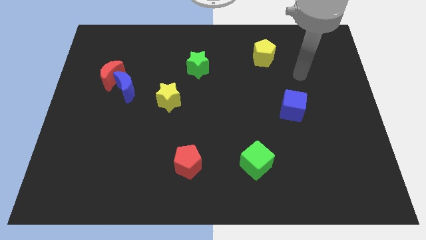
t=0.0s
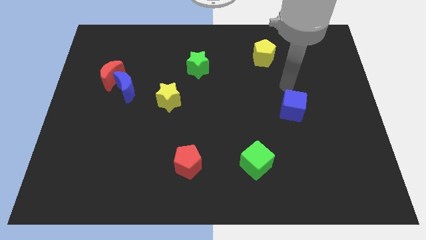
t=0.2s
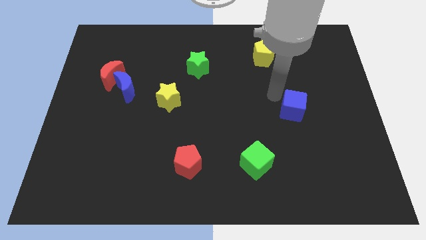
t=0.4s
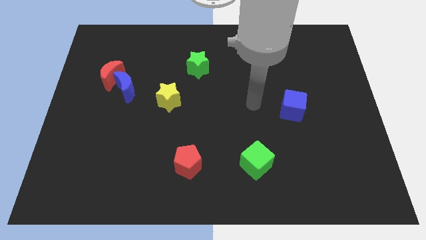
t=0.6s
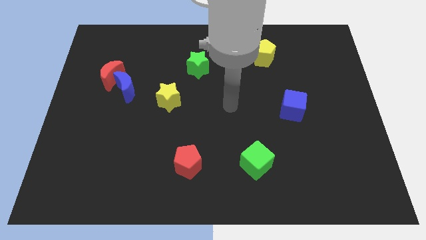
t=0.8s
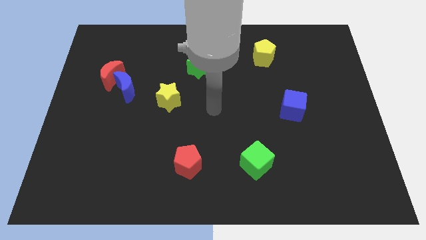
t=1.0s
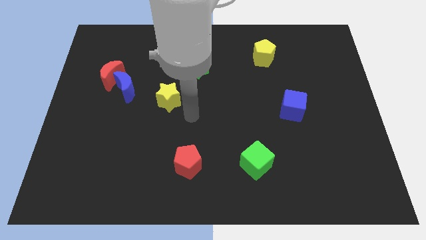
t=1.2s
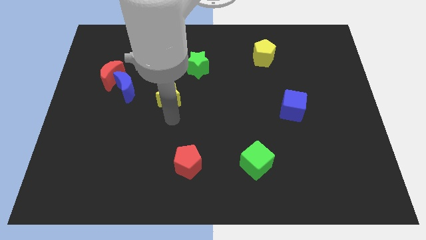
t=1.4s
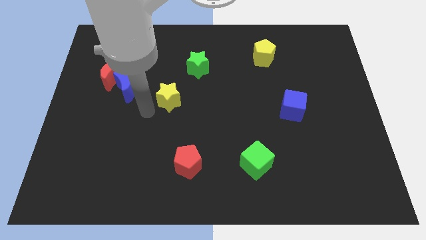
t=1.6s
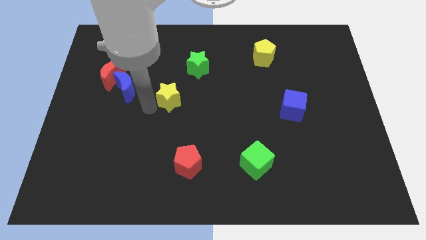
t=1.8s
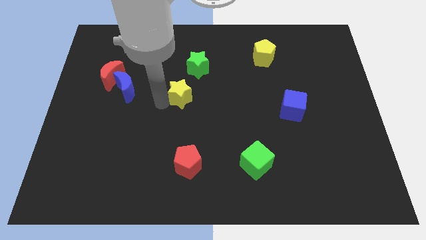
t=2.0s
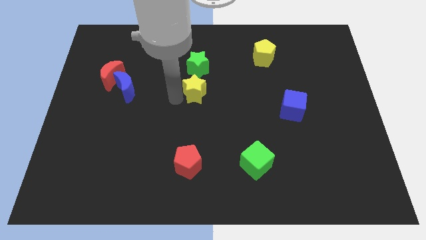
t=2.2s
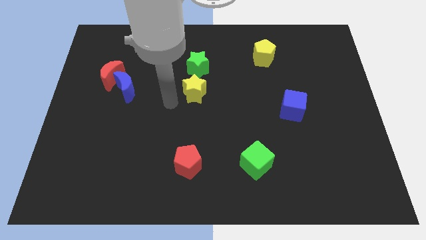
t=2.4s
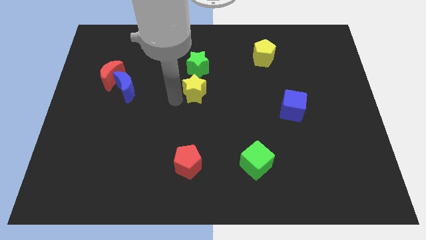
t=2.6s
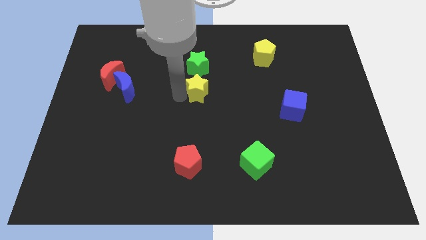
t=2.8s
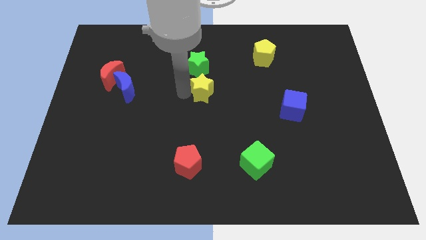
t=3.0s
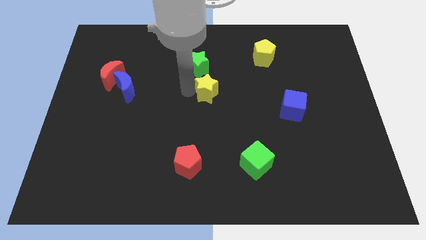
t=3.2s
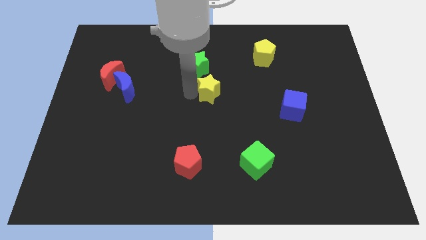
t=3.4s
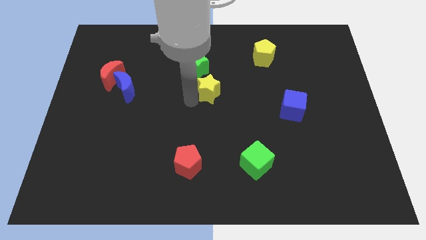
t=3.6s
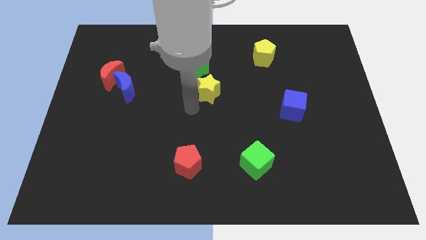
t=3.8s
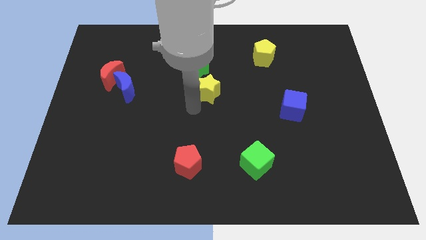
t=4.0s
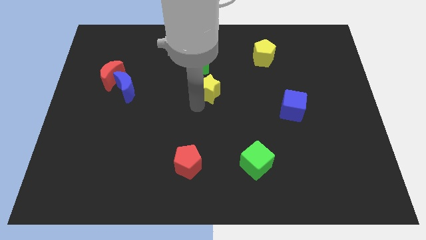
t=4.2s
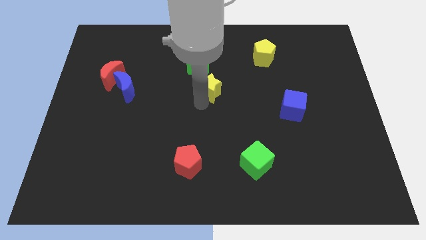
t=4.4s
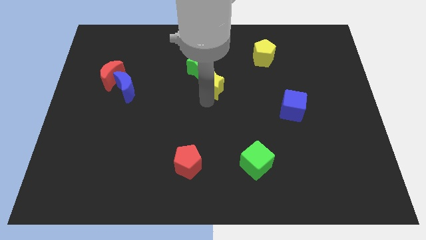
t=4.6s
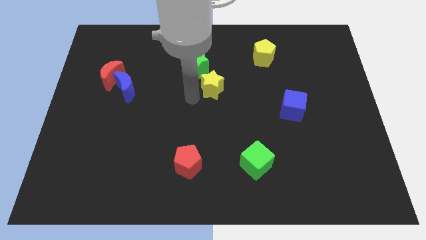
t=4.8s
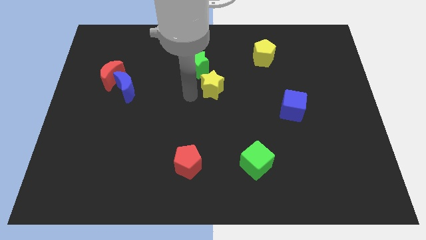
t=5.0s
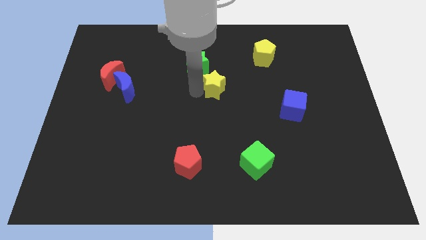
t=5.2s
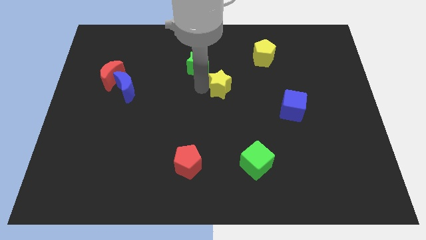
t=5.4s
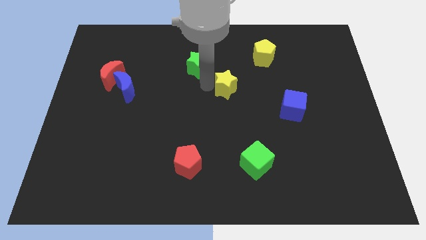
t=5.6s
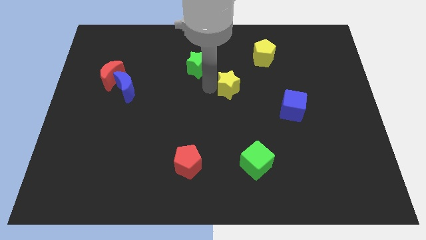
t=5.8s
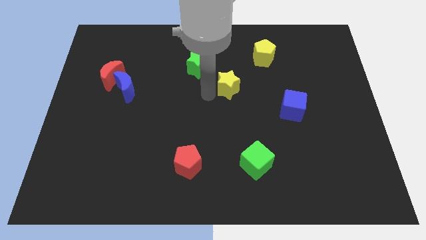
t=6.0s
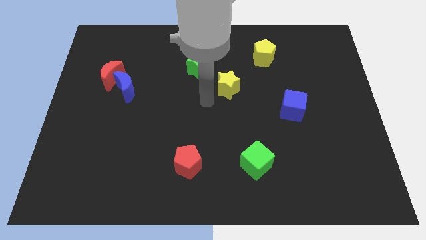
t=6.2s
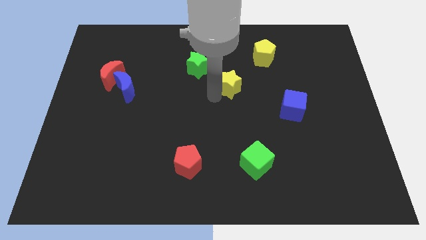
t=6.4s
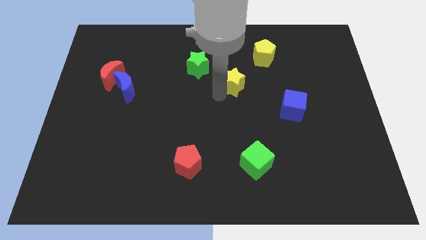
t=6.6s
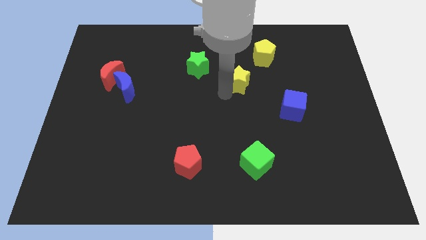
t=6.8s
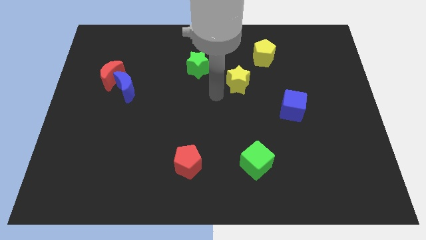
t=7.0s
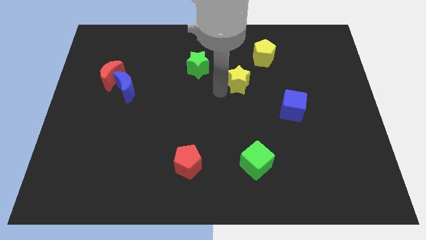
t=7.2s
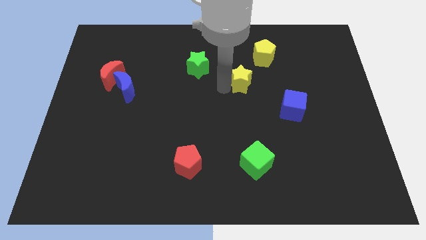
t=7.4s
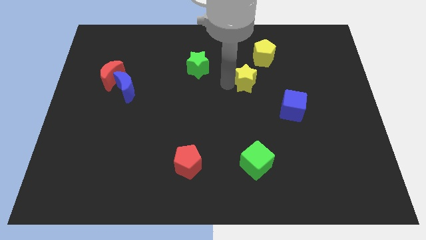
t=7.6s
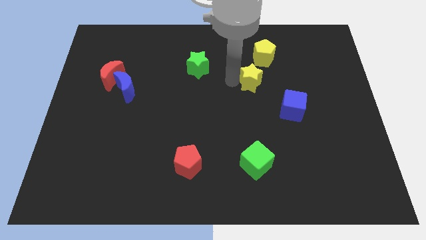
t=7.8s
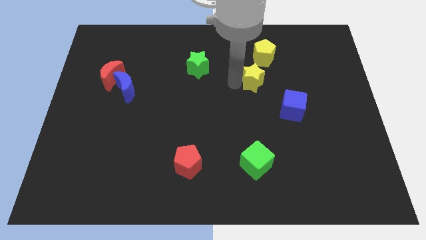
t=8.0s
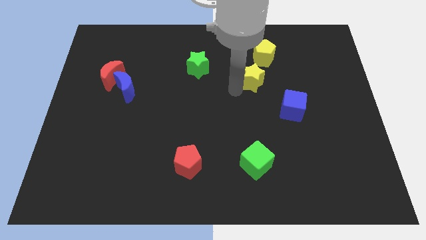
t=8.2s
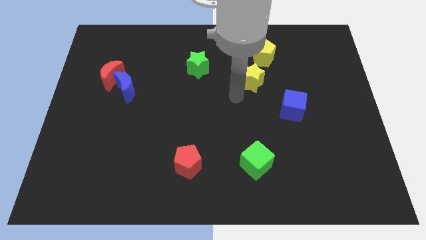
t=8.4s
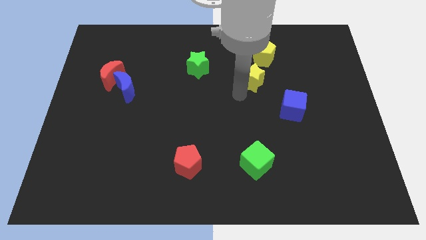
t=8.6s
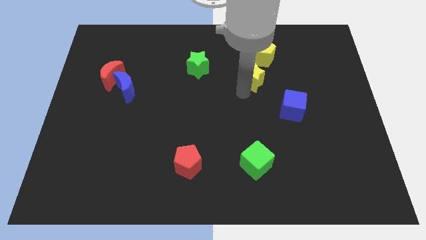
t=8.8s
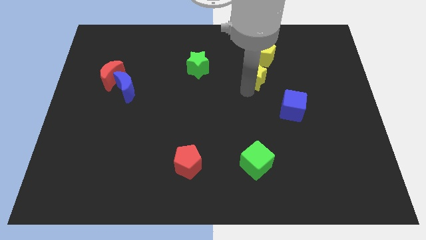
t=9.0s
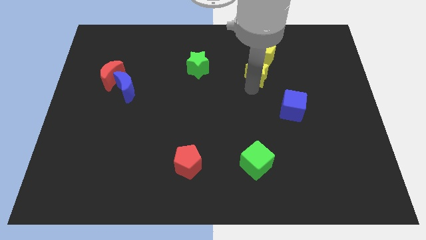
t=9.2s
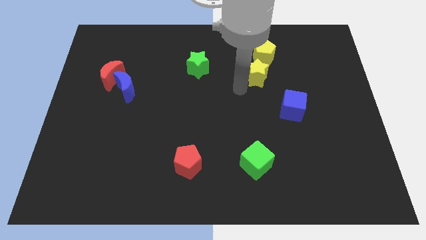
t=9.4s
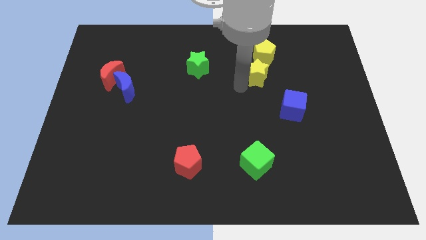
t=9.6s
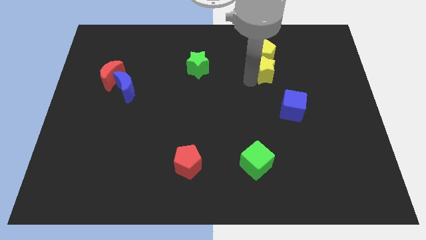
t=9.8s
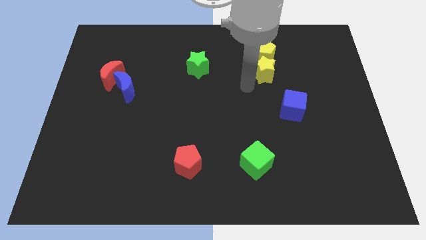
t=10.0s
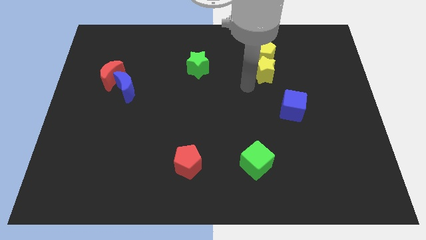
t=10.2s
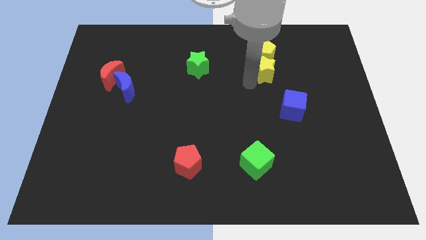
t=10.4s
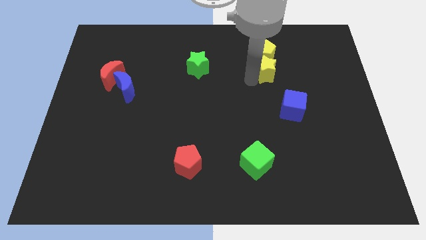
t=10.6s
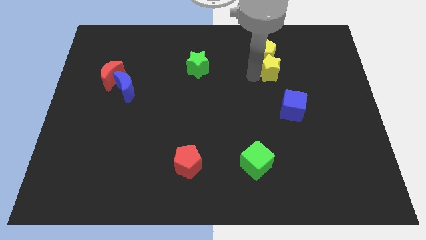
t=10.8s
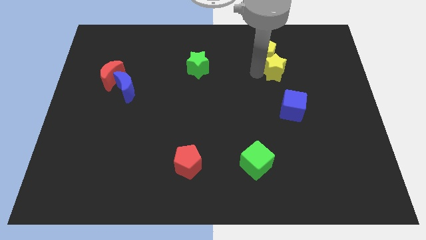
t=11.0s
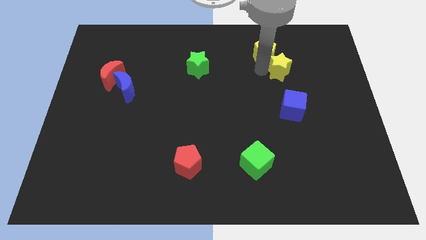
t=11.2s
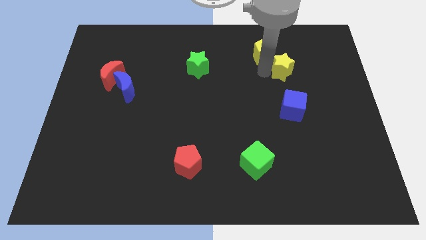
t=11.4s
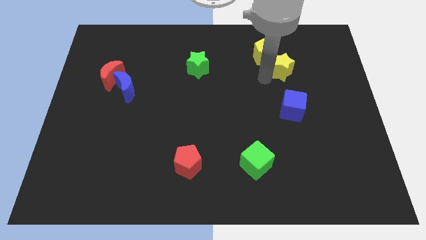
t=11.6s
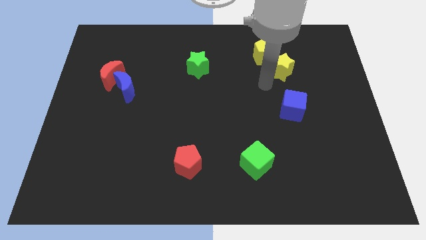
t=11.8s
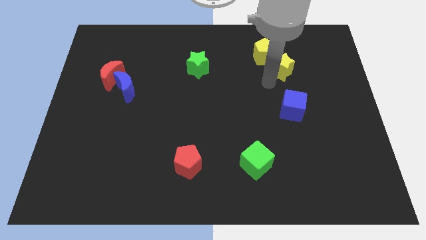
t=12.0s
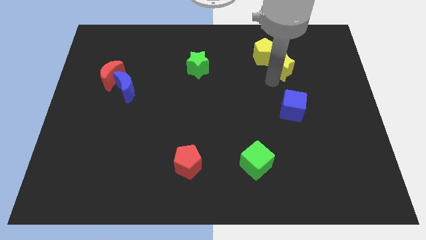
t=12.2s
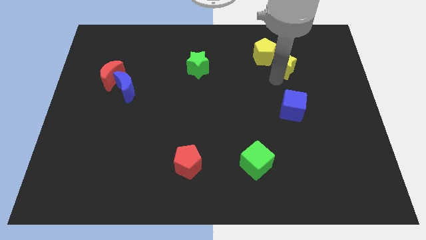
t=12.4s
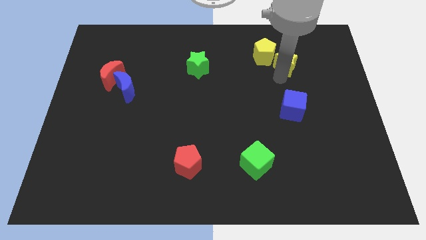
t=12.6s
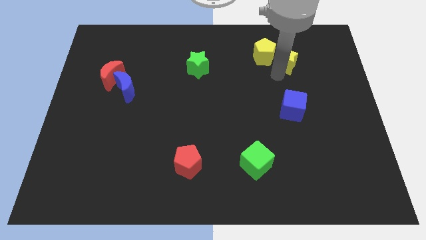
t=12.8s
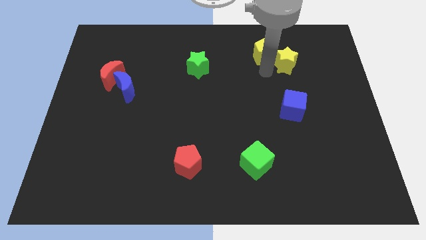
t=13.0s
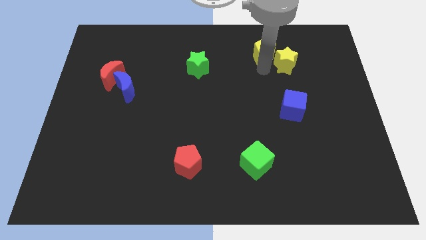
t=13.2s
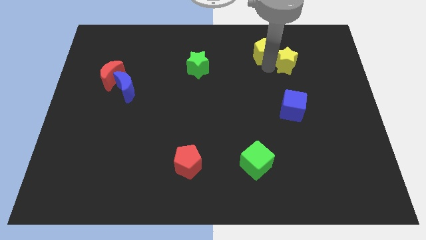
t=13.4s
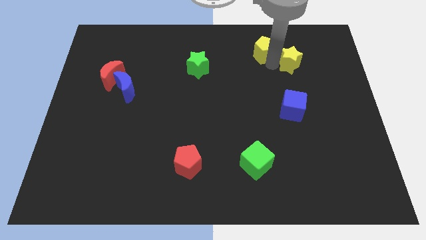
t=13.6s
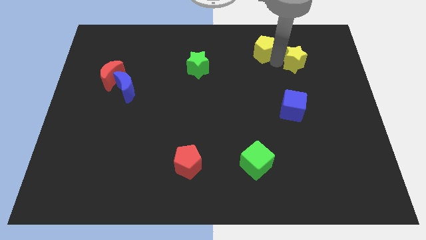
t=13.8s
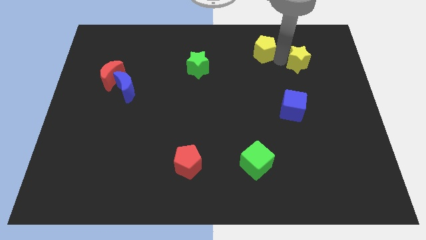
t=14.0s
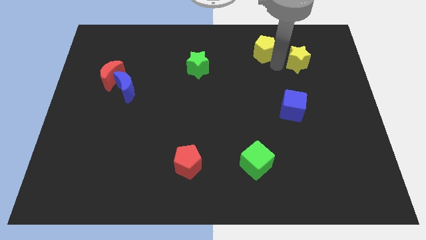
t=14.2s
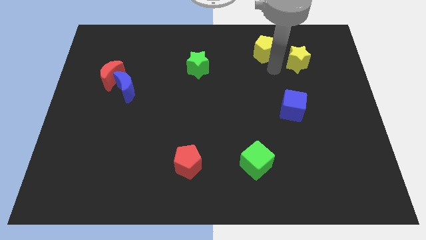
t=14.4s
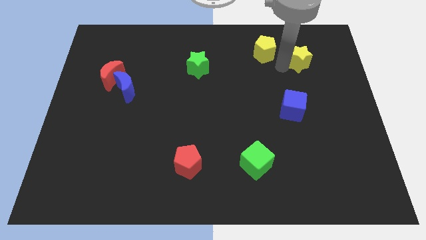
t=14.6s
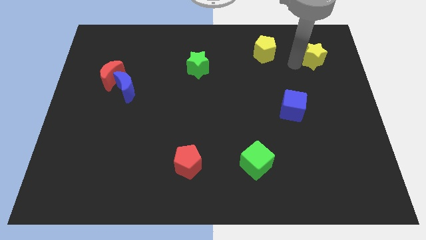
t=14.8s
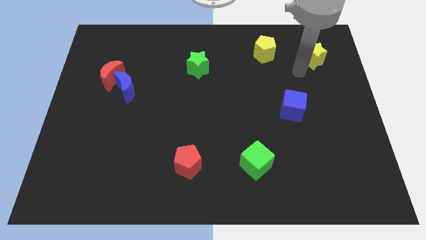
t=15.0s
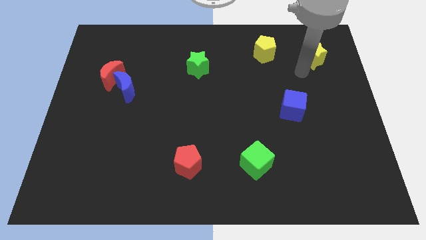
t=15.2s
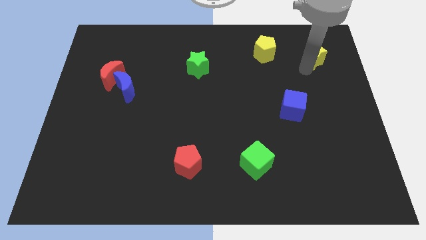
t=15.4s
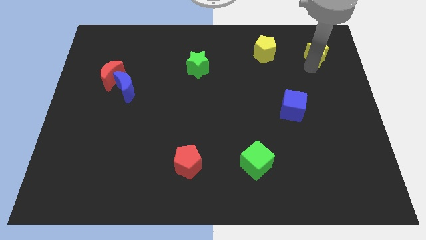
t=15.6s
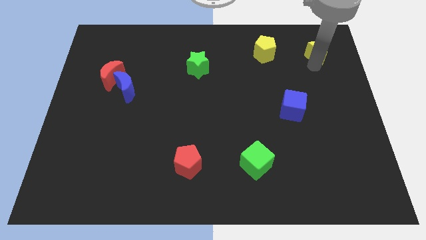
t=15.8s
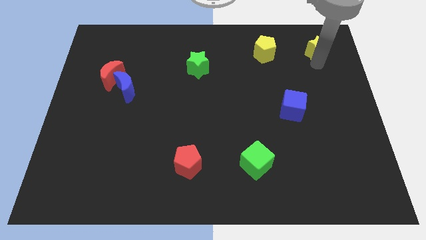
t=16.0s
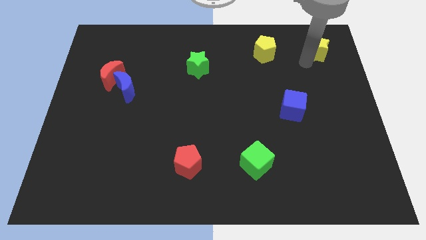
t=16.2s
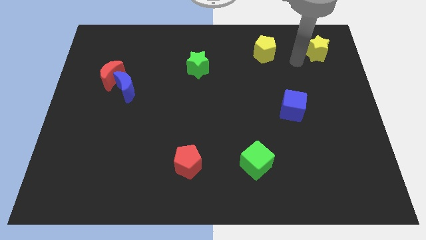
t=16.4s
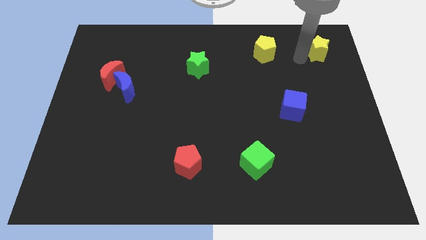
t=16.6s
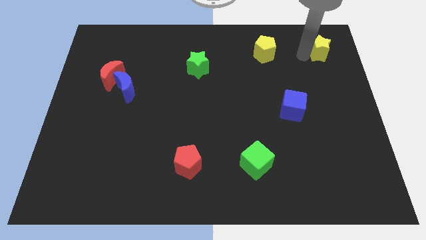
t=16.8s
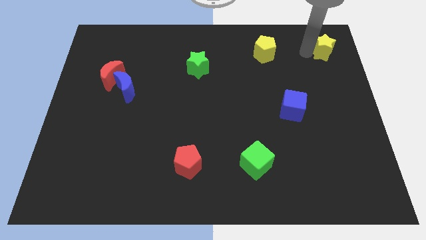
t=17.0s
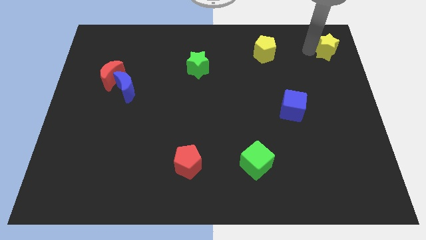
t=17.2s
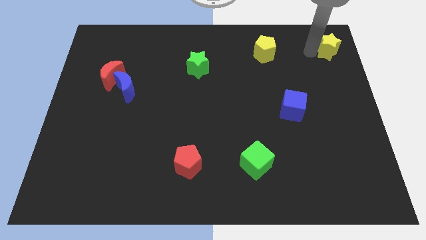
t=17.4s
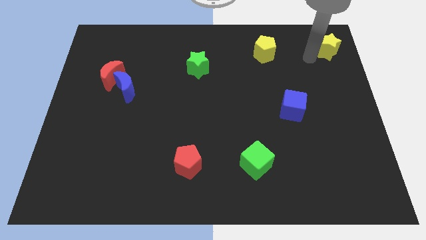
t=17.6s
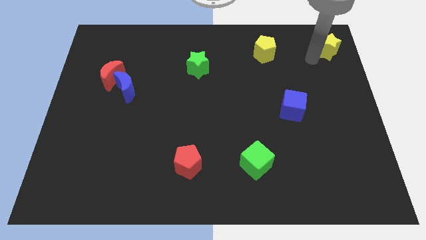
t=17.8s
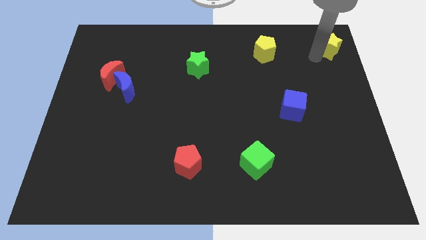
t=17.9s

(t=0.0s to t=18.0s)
push the yellow star to the top right
